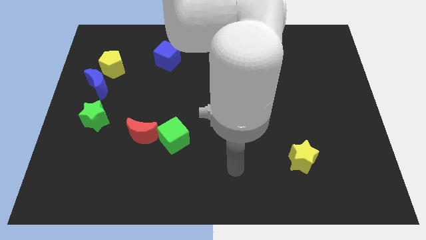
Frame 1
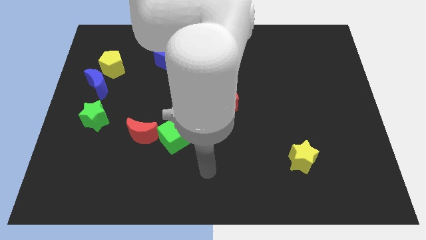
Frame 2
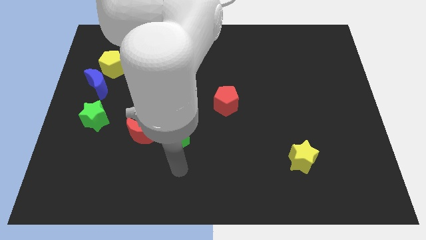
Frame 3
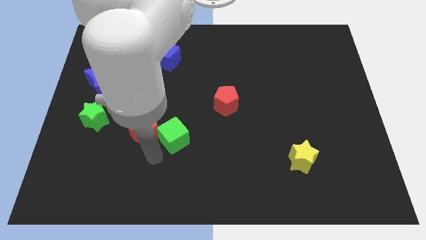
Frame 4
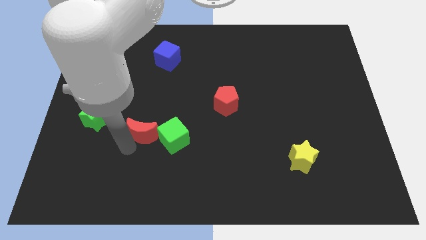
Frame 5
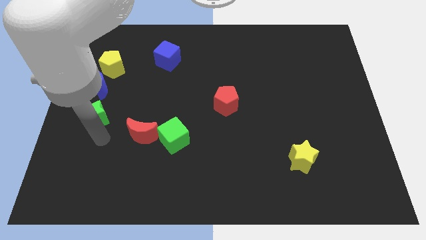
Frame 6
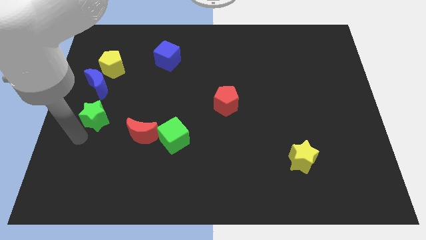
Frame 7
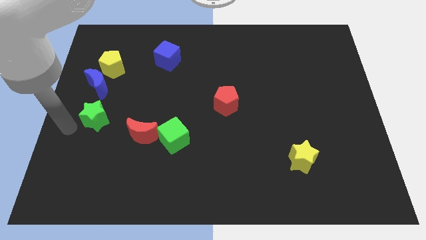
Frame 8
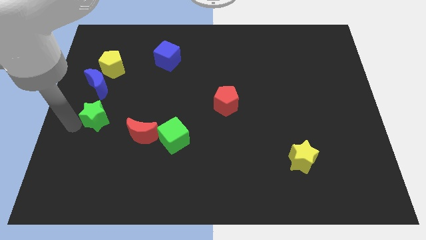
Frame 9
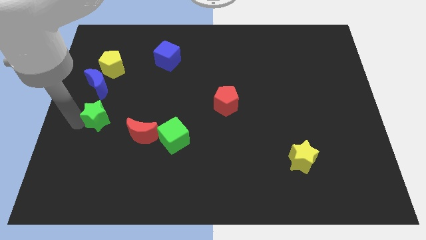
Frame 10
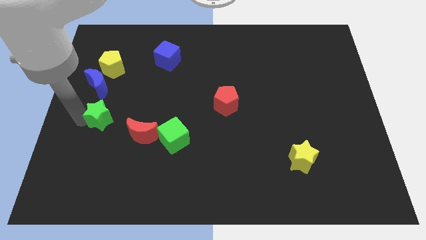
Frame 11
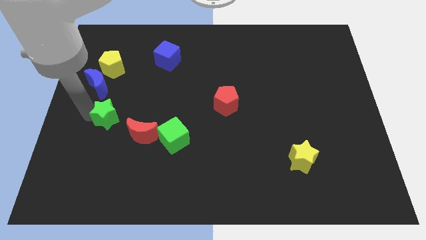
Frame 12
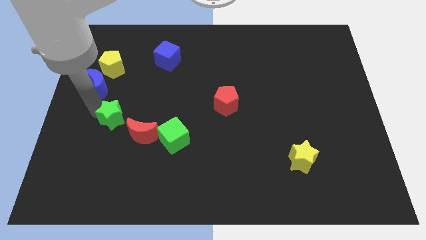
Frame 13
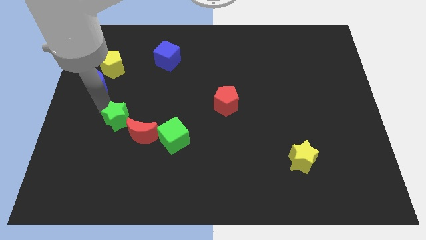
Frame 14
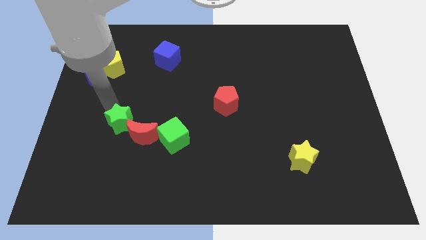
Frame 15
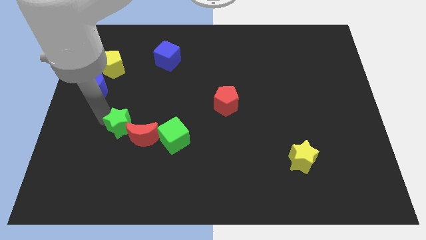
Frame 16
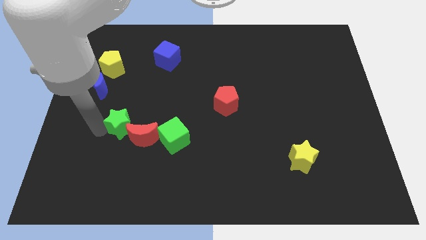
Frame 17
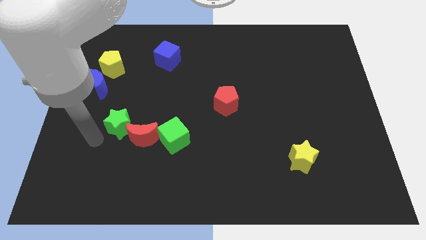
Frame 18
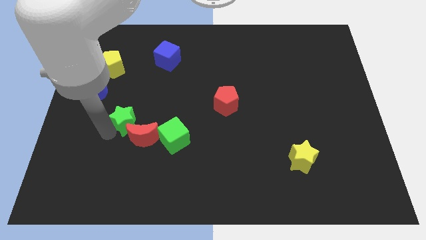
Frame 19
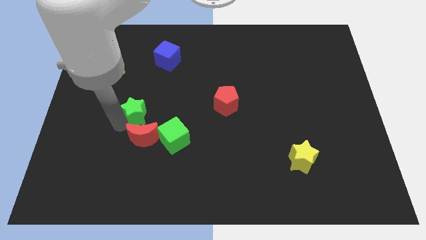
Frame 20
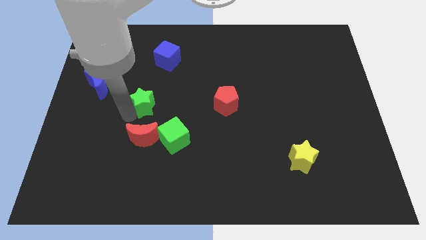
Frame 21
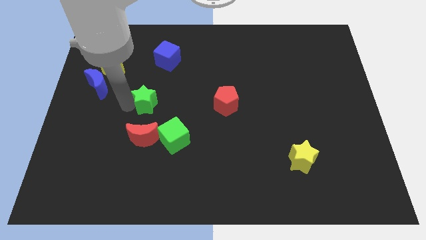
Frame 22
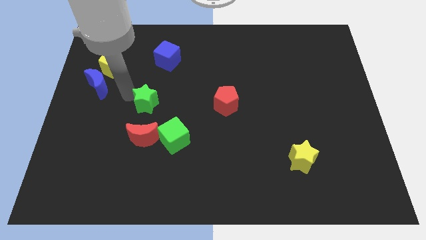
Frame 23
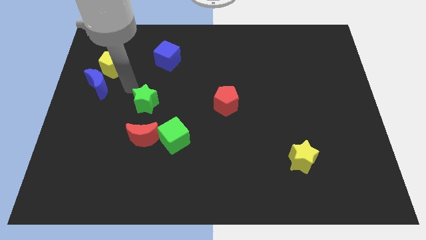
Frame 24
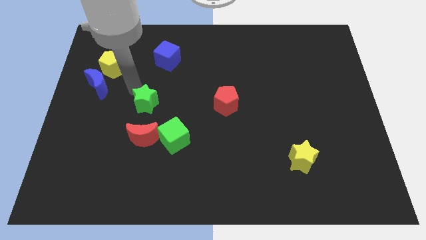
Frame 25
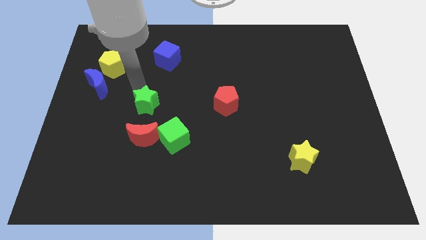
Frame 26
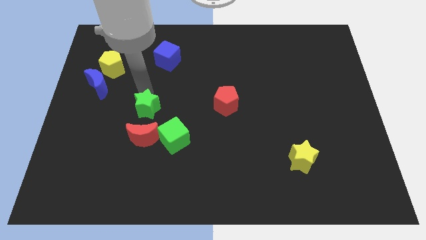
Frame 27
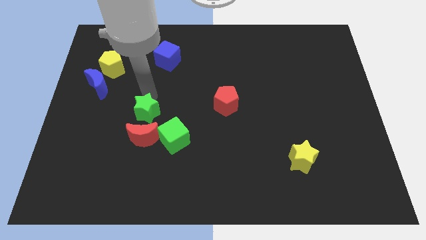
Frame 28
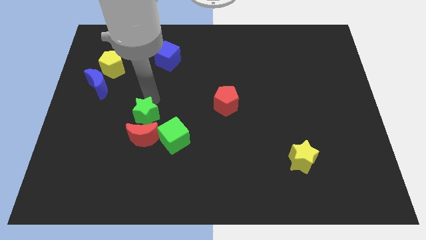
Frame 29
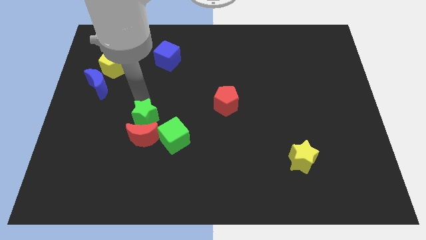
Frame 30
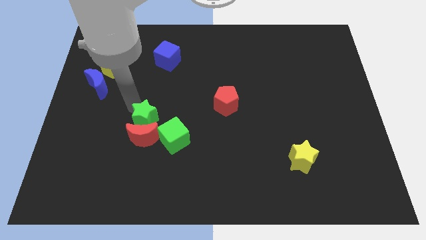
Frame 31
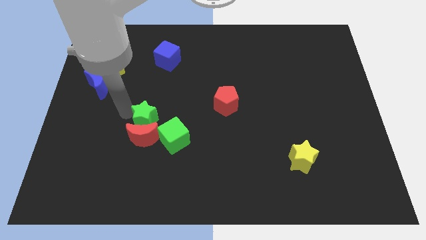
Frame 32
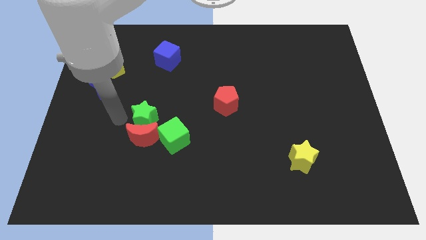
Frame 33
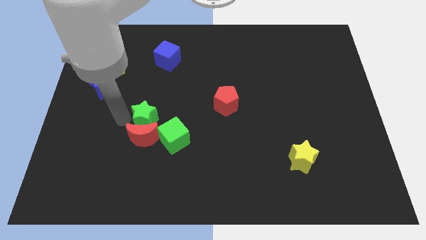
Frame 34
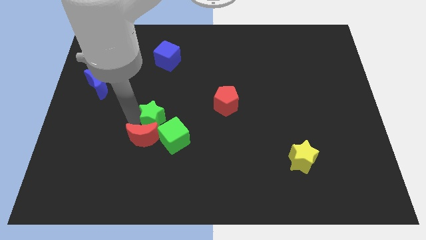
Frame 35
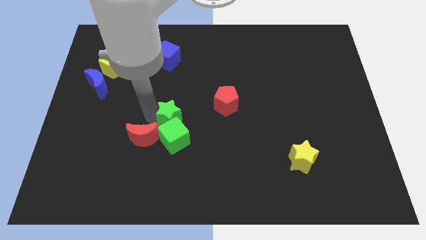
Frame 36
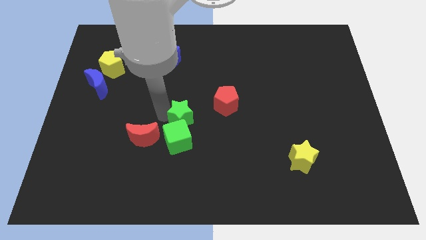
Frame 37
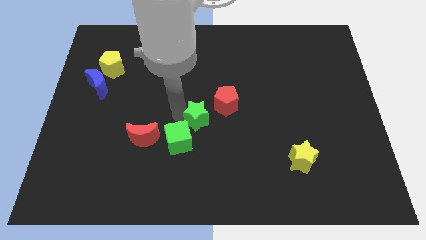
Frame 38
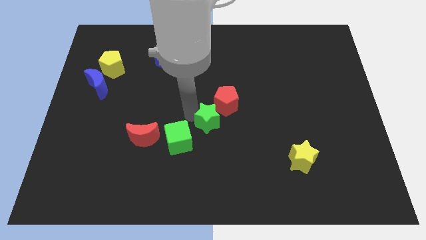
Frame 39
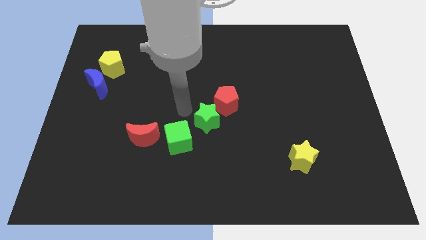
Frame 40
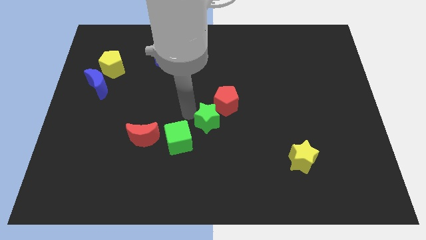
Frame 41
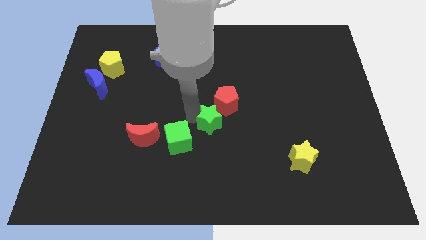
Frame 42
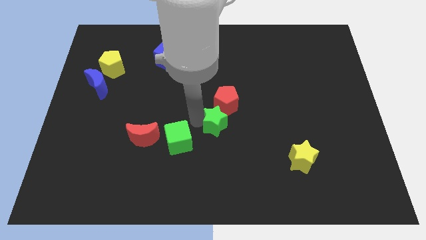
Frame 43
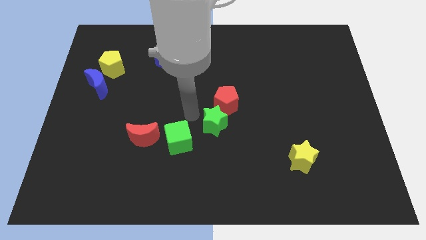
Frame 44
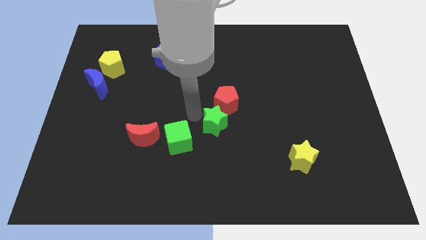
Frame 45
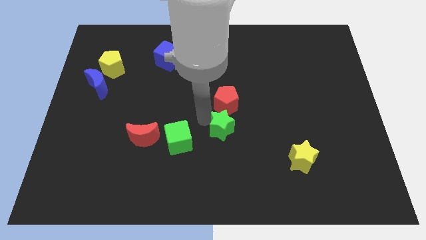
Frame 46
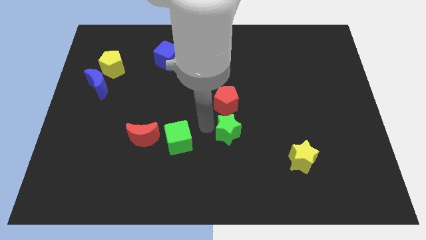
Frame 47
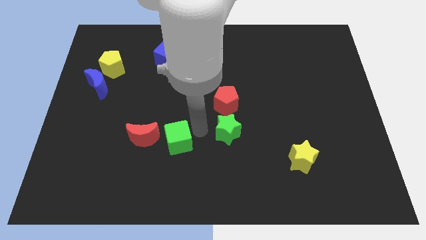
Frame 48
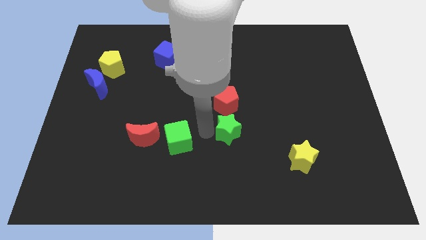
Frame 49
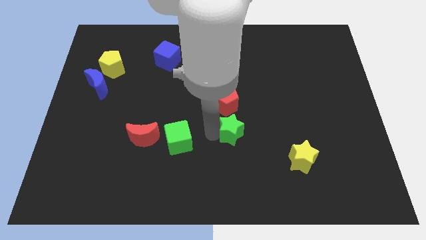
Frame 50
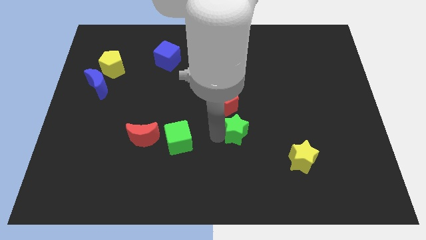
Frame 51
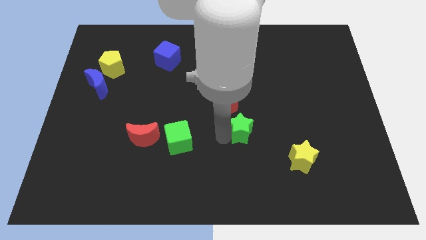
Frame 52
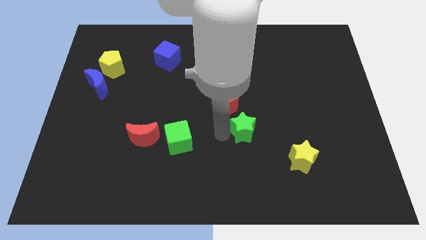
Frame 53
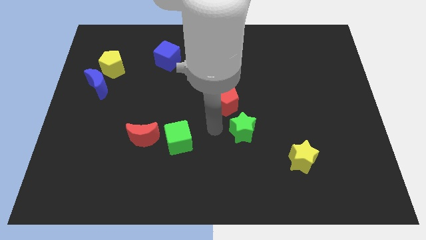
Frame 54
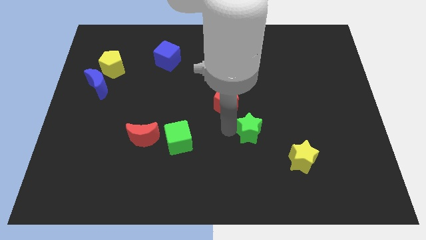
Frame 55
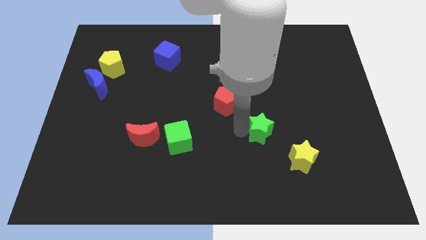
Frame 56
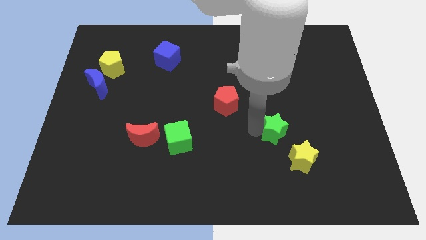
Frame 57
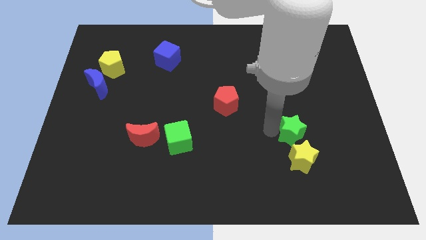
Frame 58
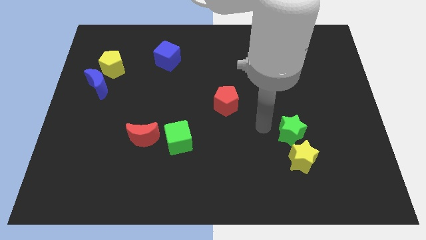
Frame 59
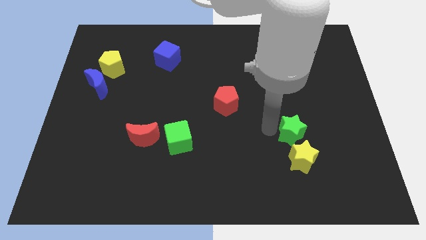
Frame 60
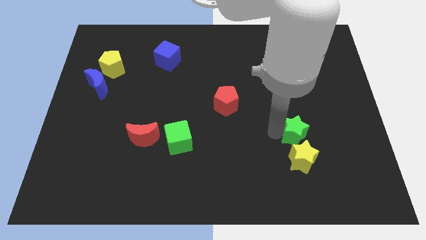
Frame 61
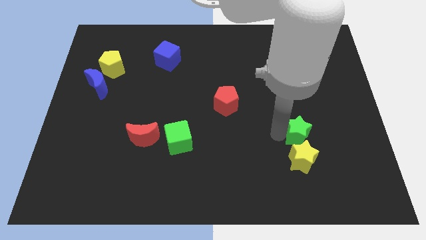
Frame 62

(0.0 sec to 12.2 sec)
put the green star to the top right side of the yellow star

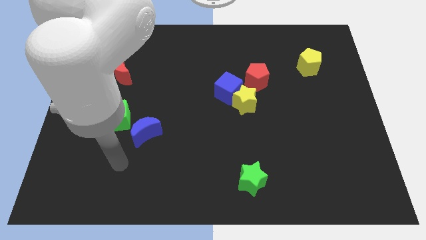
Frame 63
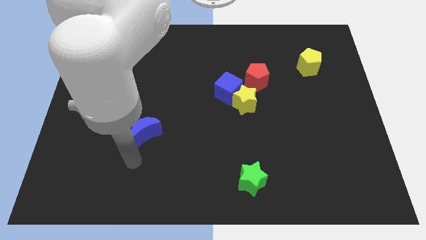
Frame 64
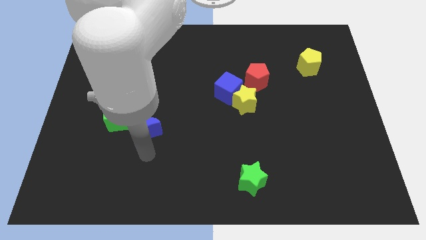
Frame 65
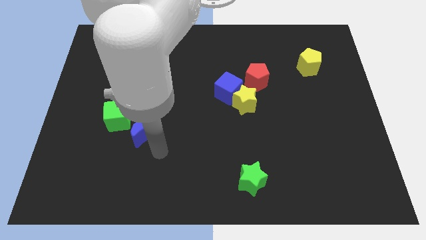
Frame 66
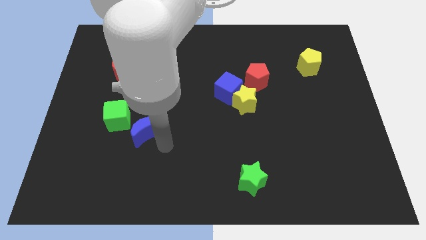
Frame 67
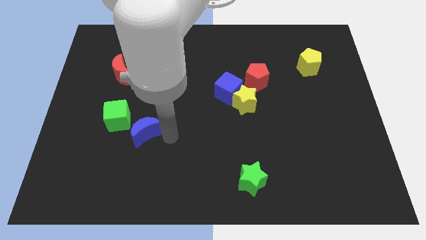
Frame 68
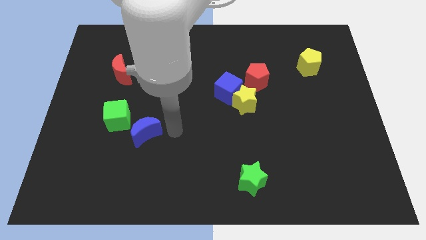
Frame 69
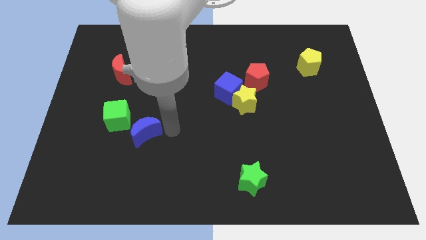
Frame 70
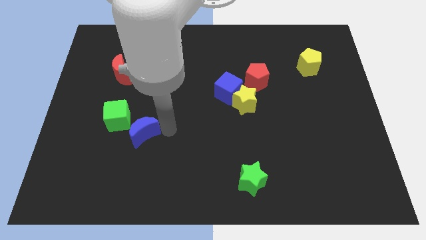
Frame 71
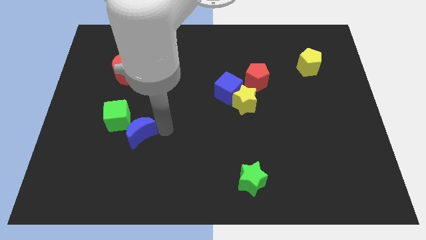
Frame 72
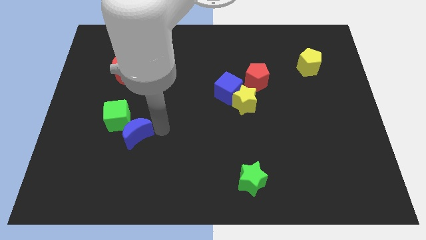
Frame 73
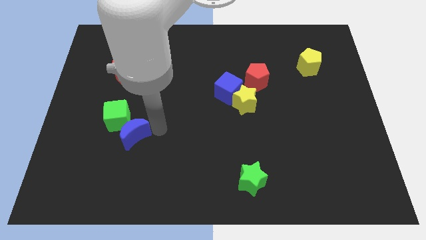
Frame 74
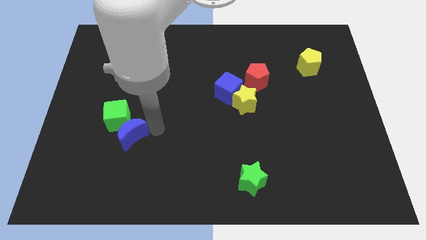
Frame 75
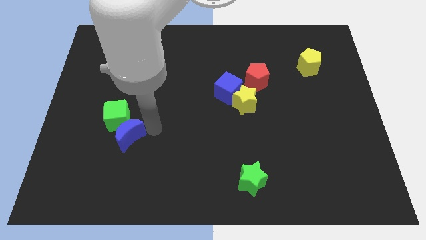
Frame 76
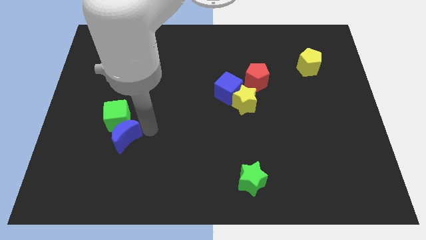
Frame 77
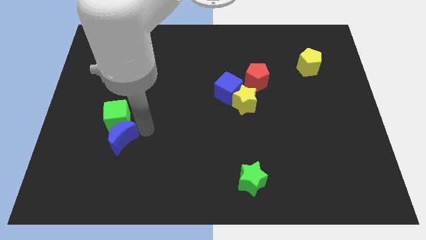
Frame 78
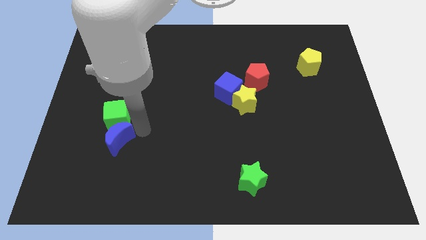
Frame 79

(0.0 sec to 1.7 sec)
push the blue moon to the bottom left side of the green cube

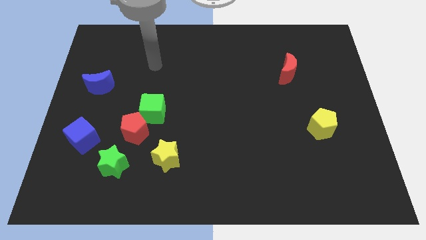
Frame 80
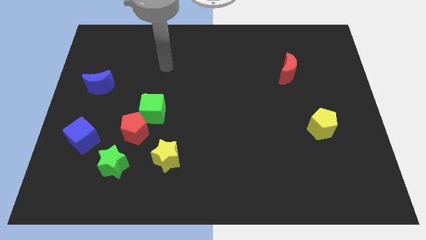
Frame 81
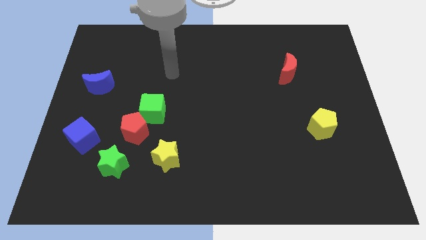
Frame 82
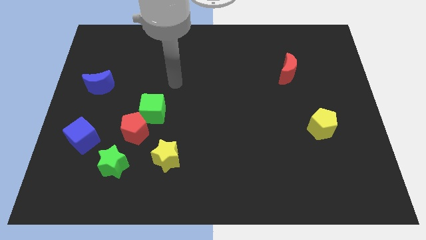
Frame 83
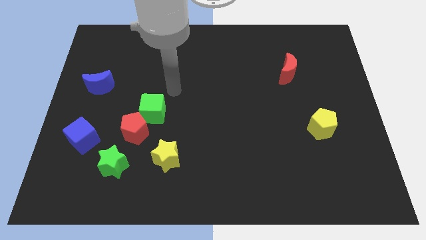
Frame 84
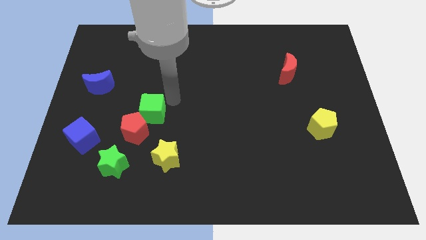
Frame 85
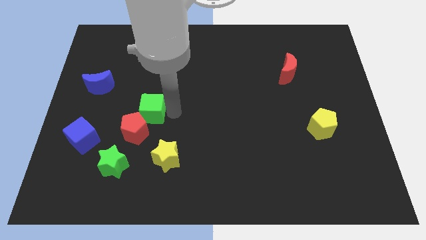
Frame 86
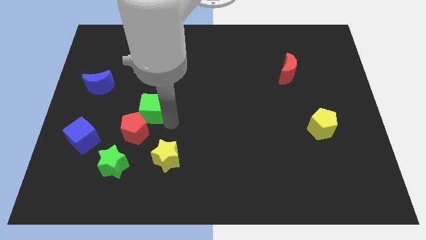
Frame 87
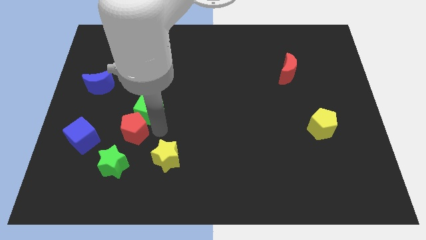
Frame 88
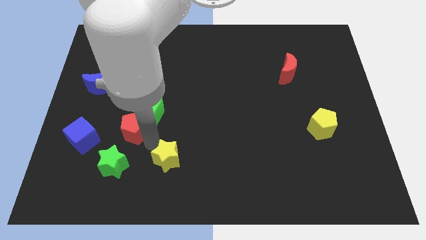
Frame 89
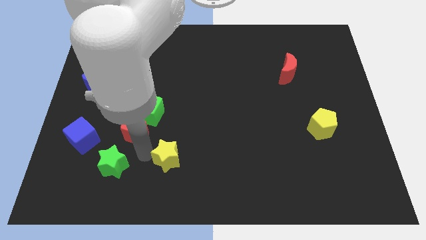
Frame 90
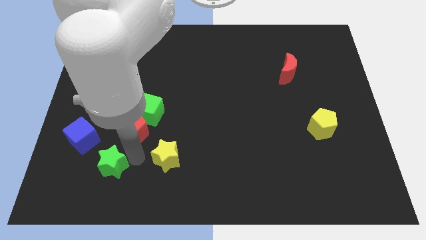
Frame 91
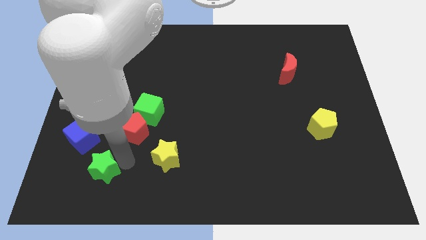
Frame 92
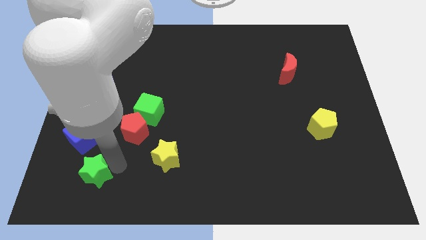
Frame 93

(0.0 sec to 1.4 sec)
slide the green star to the bottom of the blue cube
